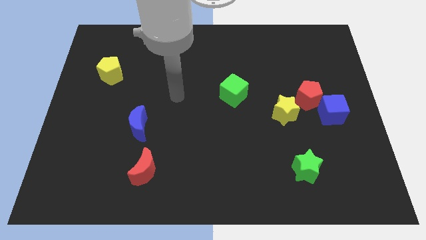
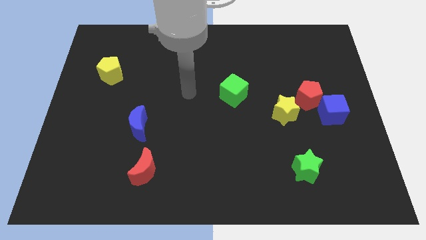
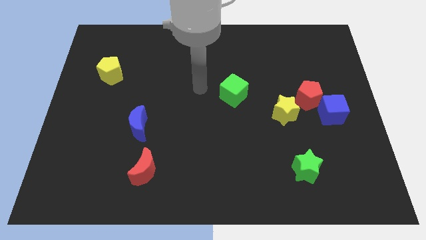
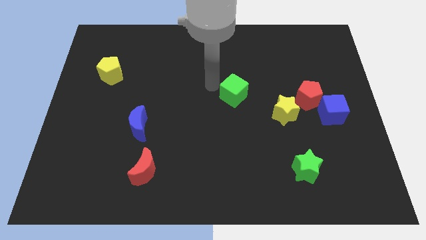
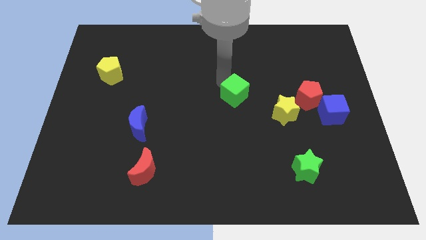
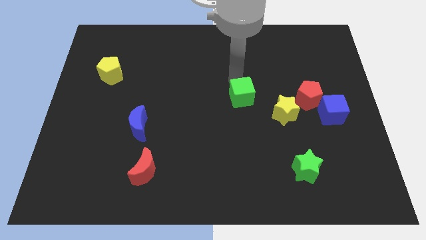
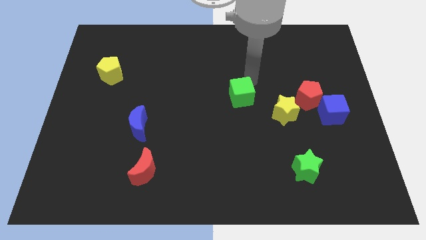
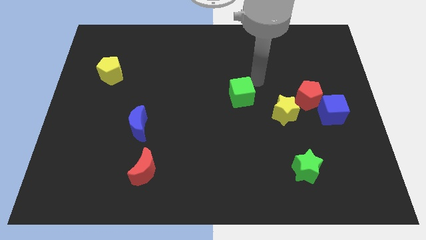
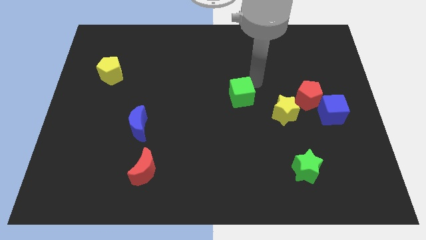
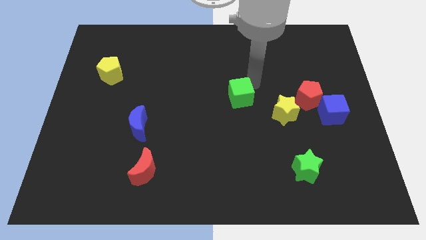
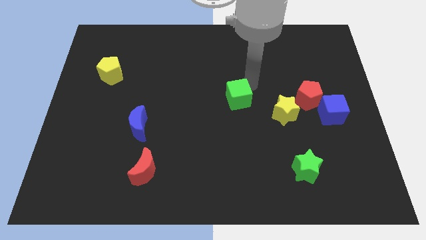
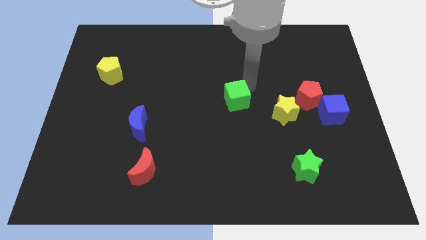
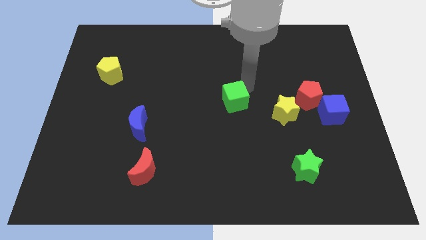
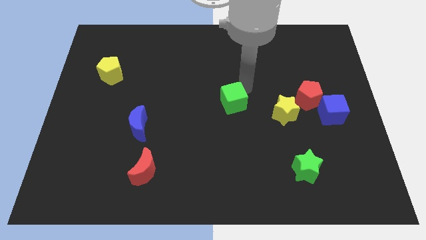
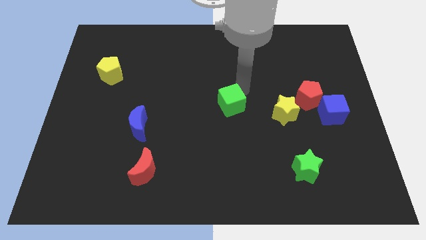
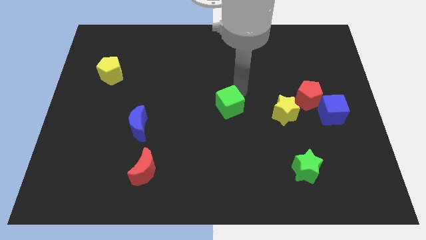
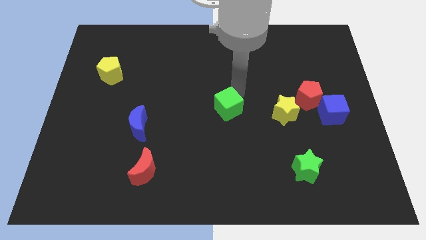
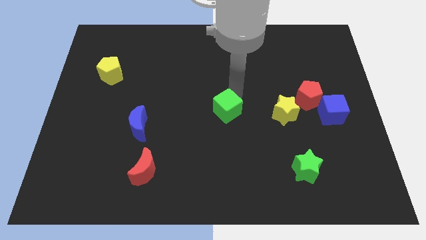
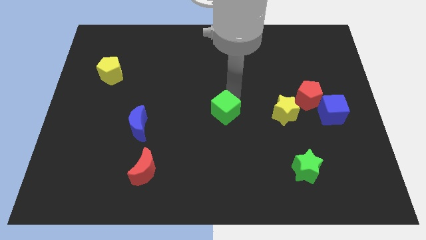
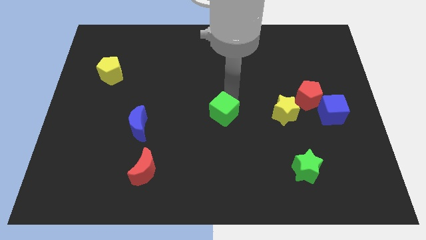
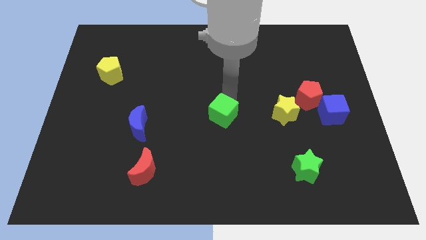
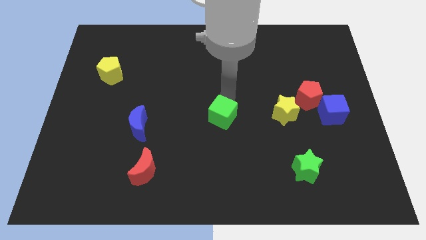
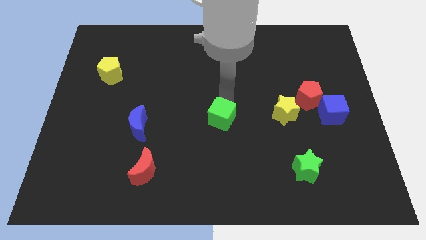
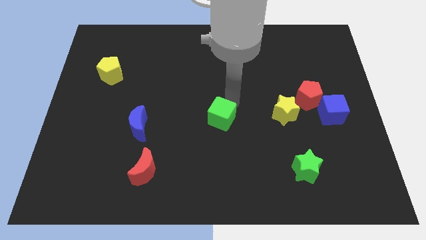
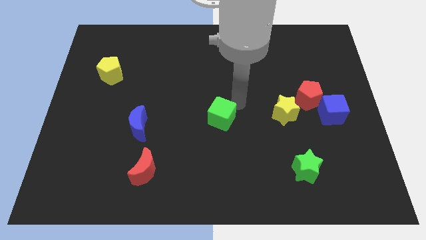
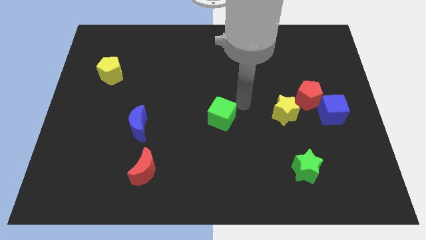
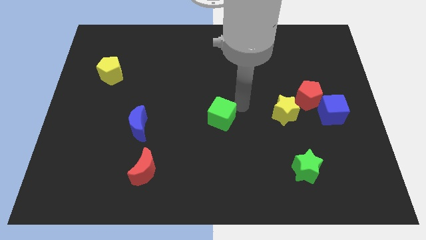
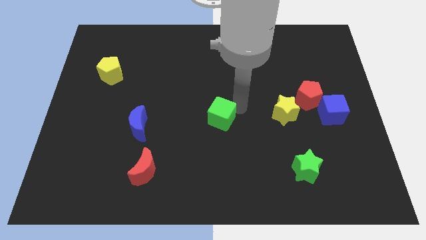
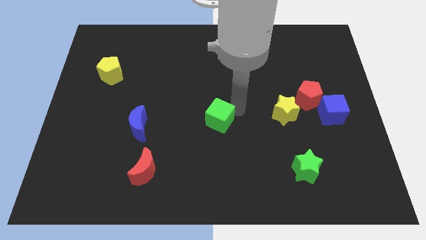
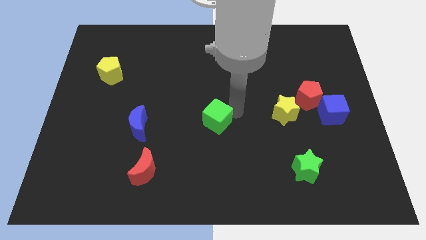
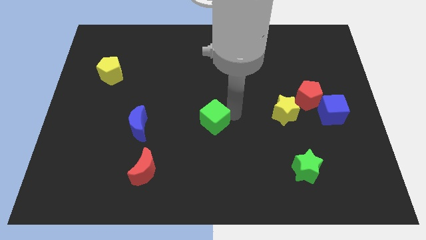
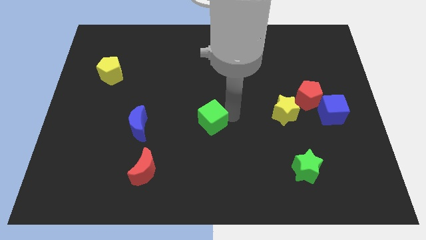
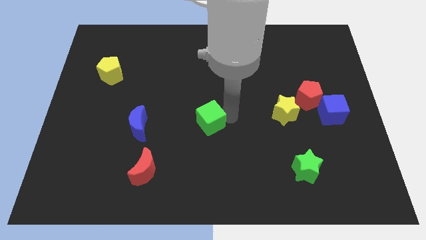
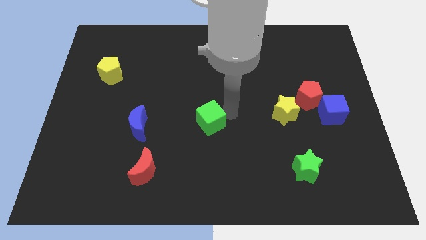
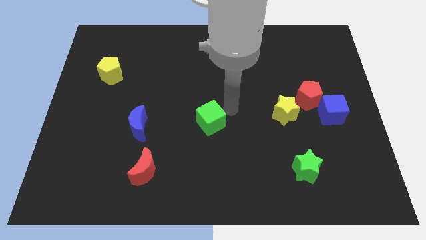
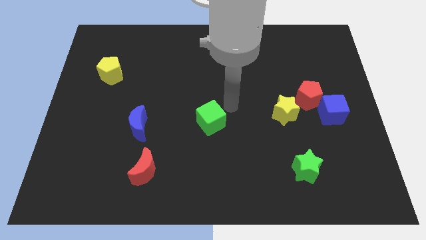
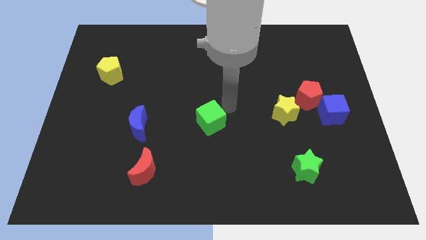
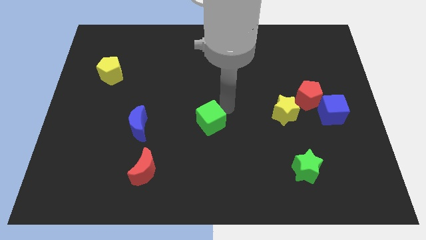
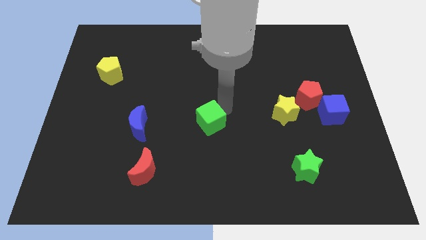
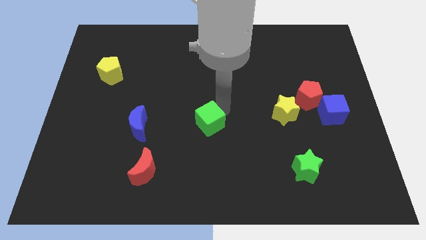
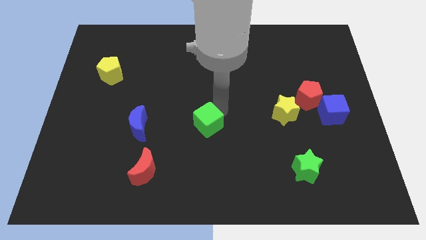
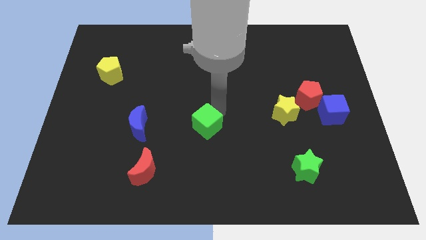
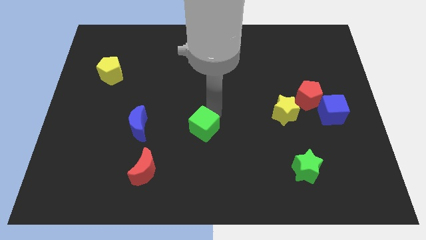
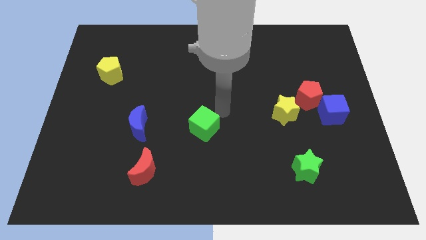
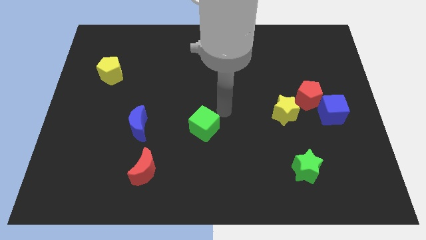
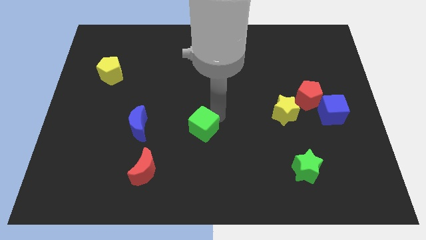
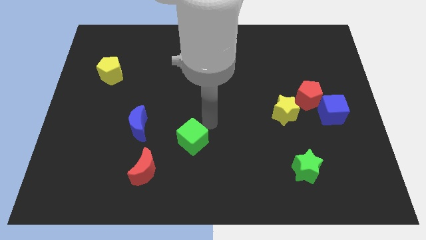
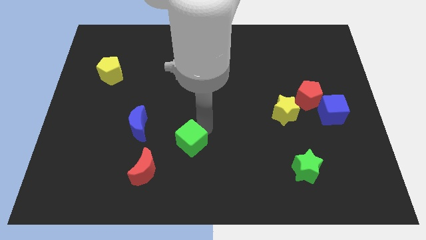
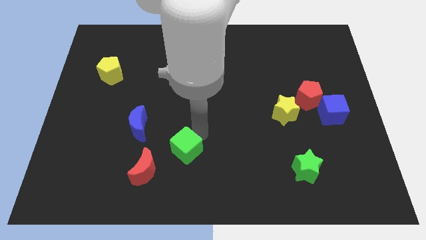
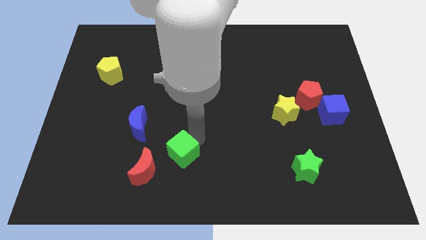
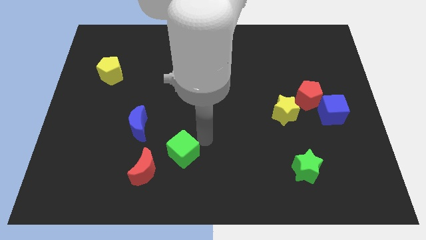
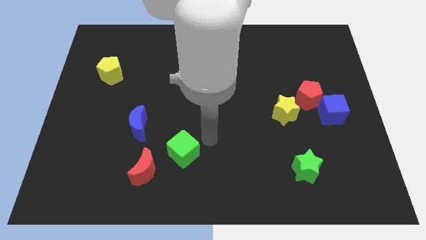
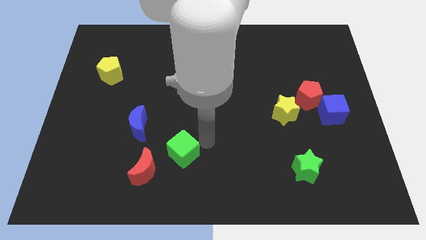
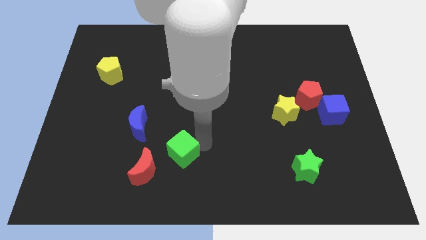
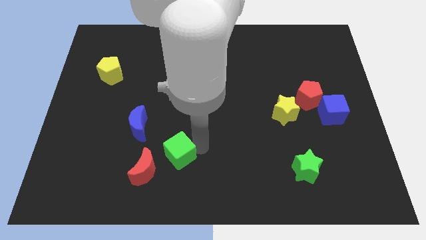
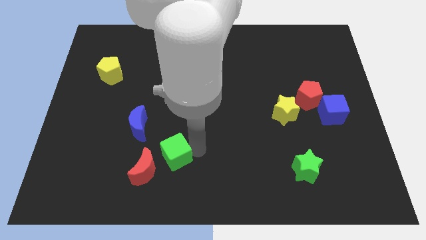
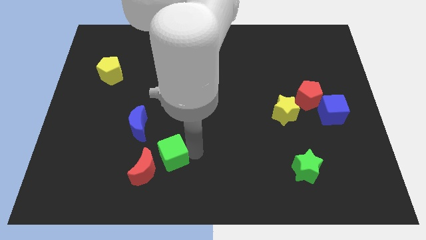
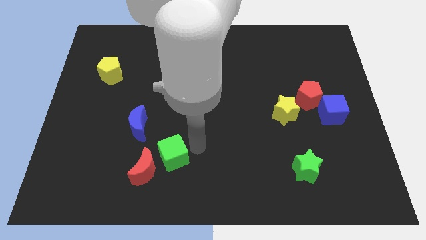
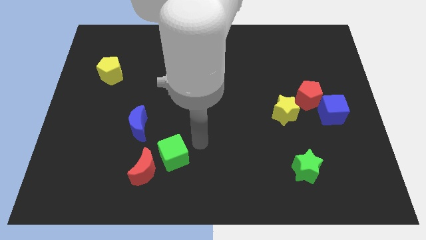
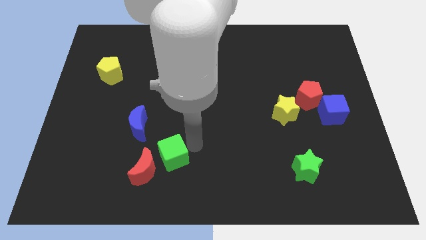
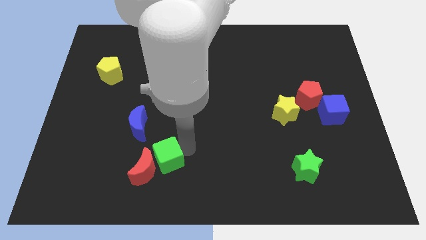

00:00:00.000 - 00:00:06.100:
move the green cube close to the red moon

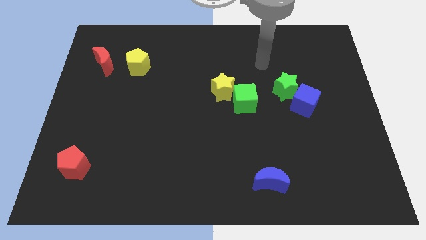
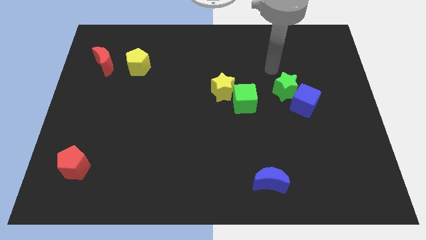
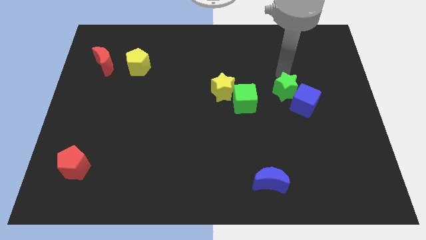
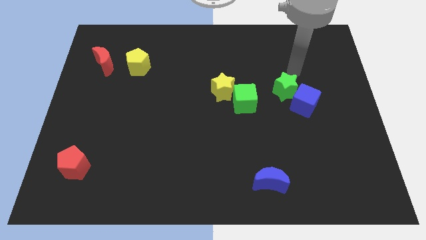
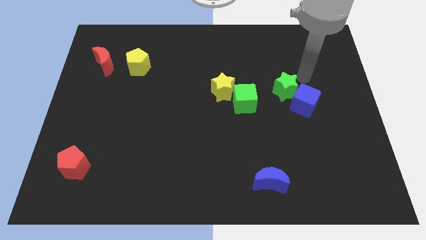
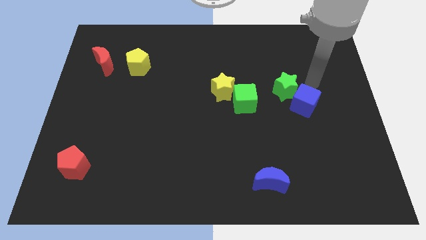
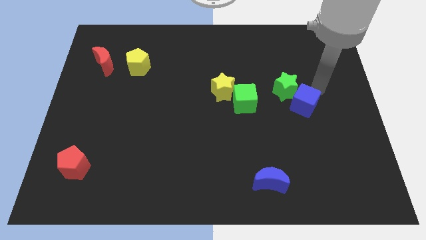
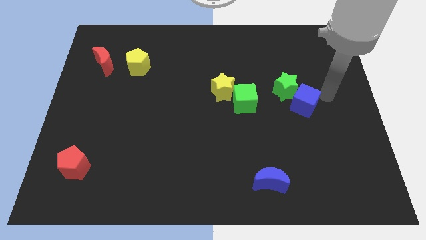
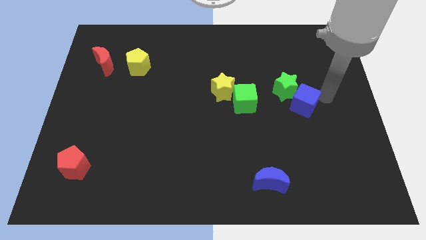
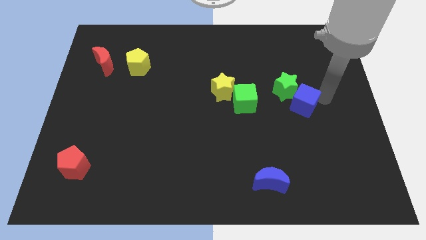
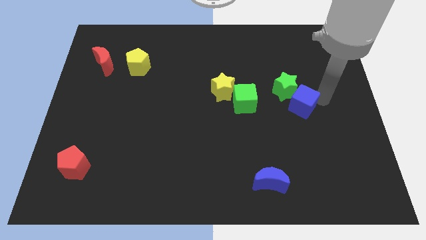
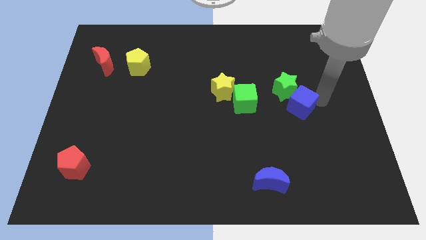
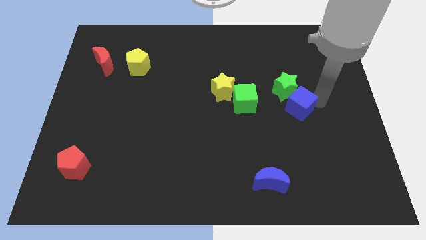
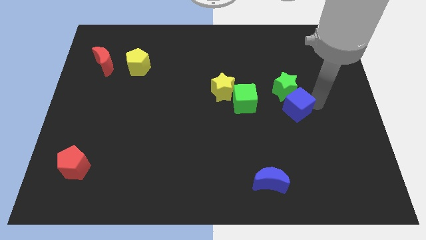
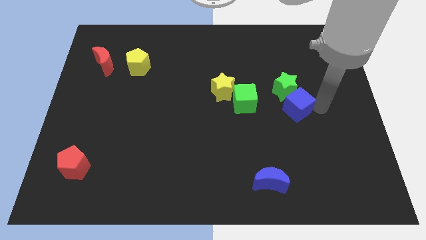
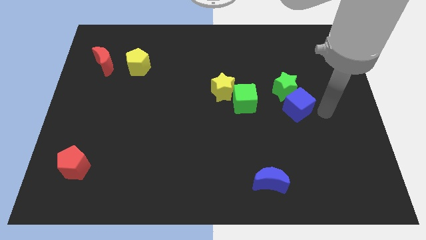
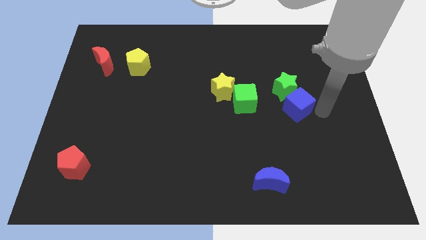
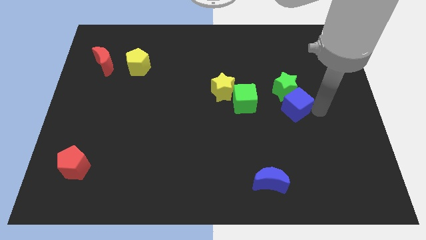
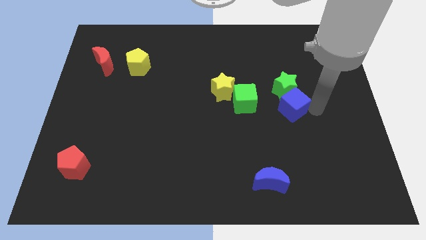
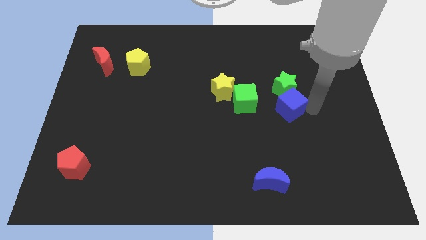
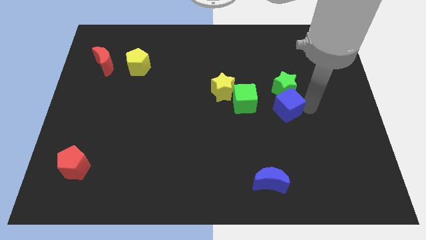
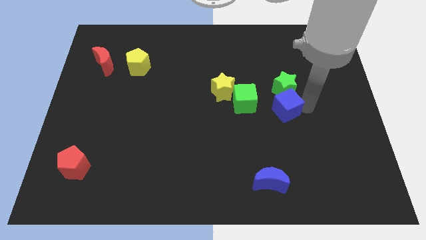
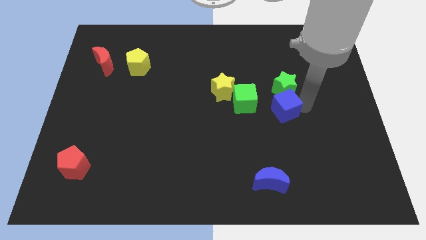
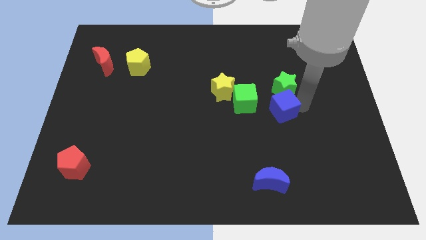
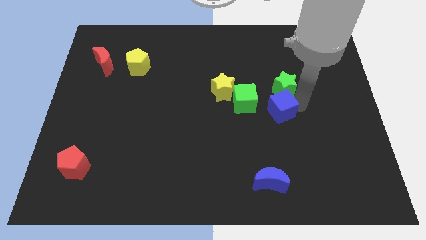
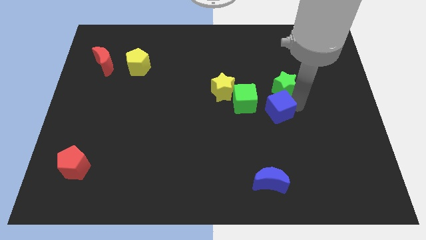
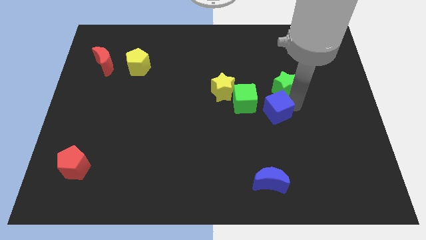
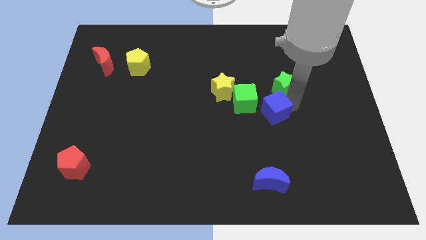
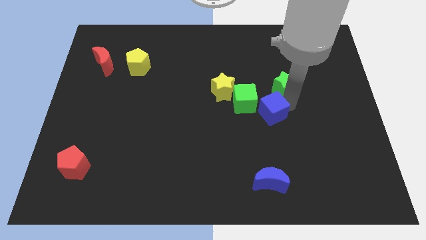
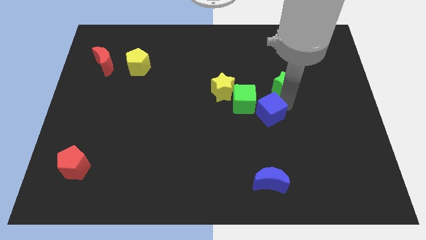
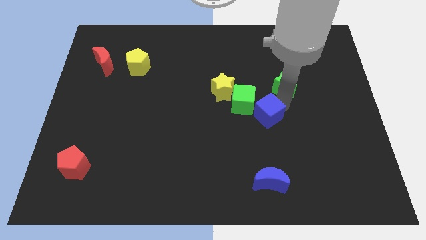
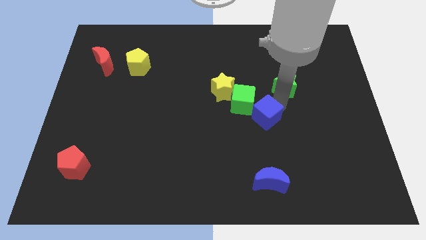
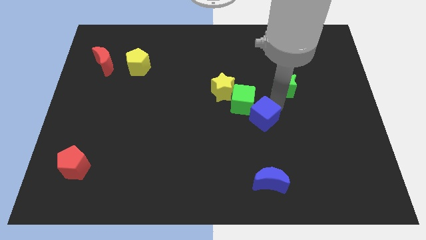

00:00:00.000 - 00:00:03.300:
move the blue cube to the green cube
